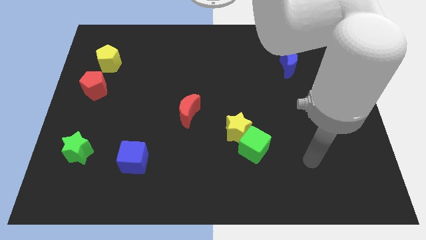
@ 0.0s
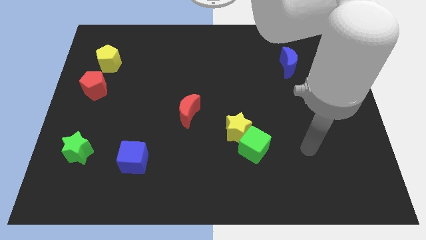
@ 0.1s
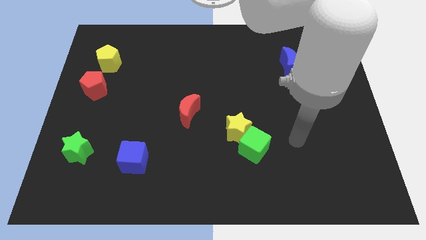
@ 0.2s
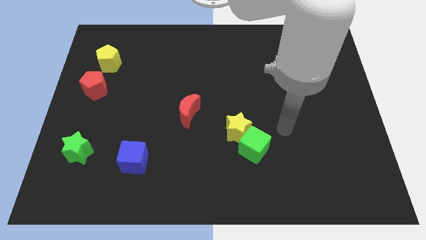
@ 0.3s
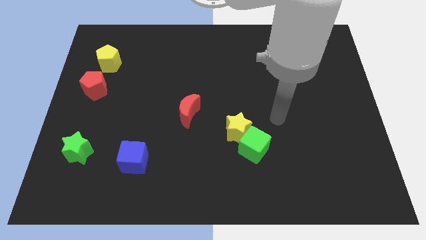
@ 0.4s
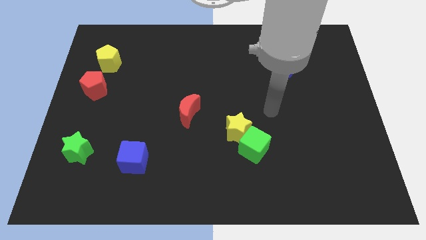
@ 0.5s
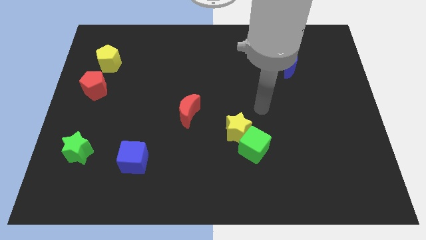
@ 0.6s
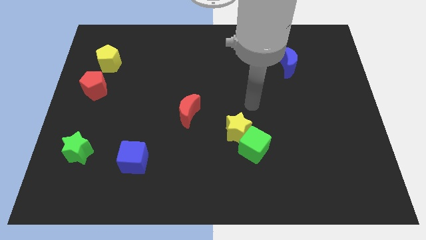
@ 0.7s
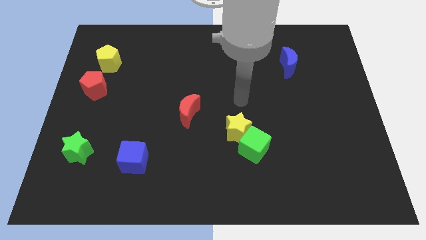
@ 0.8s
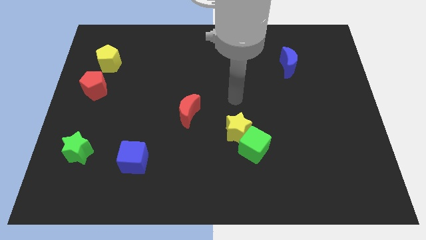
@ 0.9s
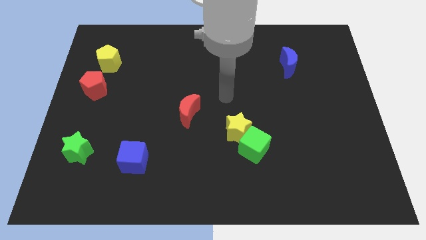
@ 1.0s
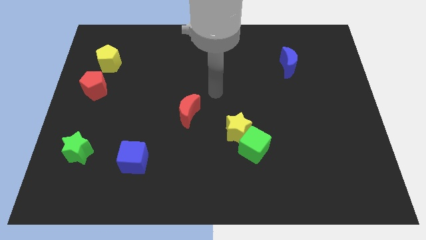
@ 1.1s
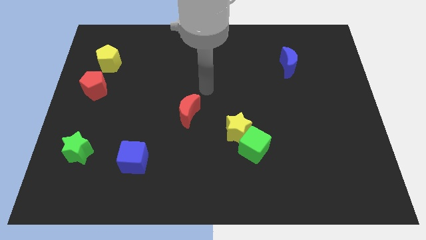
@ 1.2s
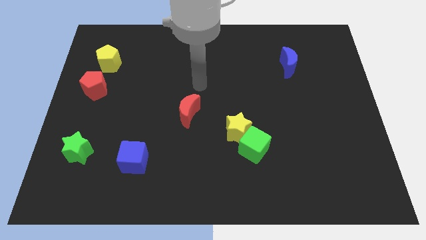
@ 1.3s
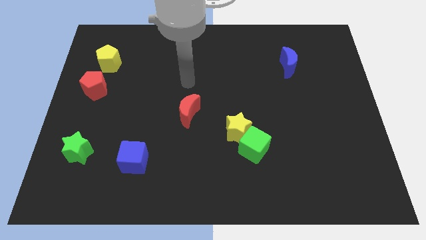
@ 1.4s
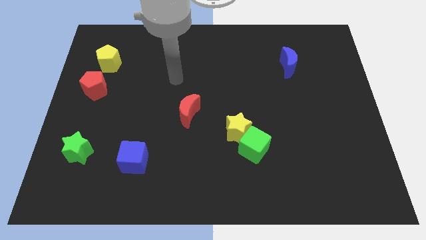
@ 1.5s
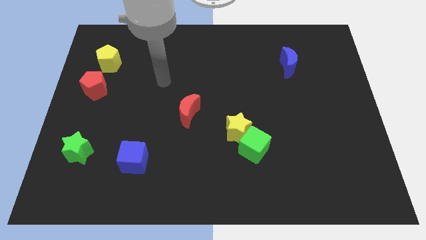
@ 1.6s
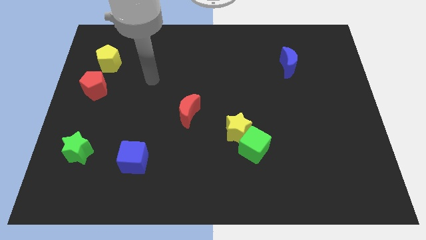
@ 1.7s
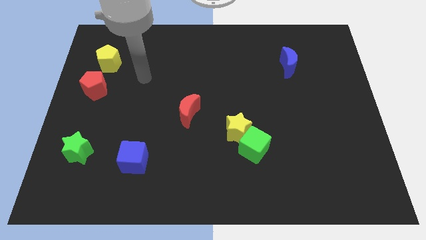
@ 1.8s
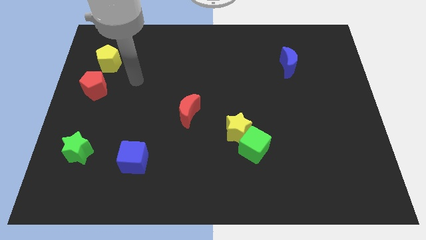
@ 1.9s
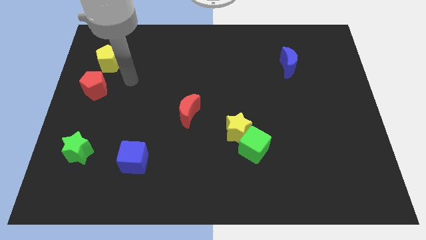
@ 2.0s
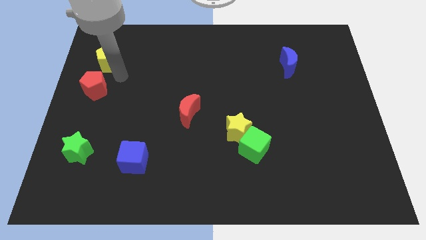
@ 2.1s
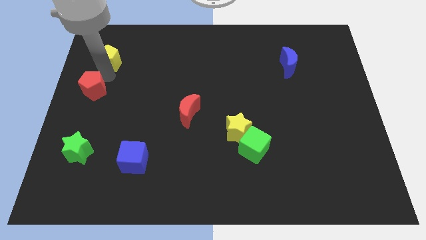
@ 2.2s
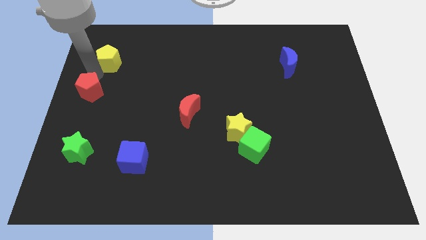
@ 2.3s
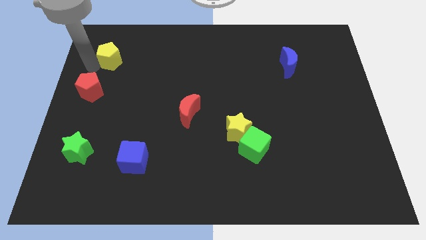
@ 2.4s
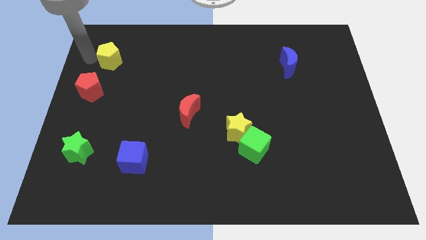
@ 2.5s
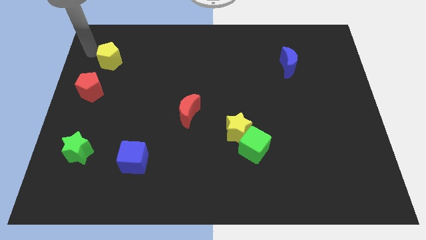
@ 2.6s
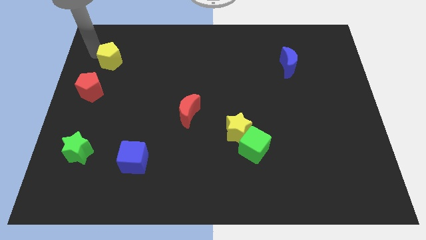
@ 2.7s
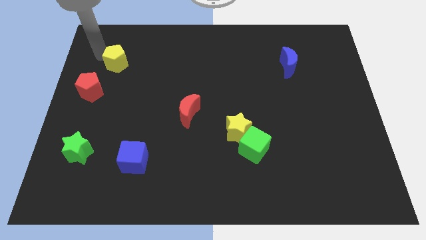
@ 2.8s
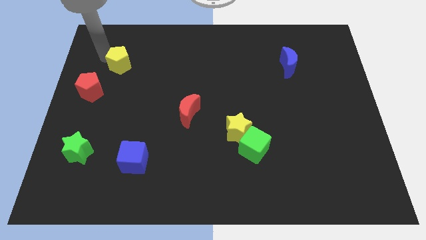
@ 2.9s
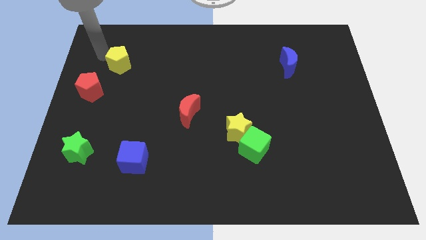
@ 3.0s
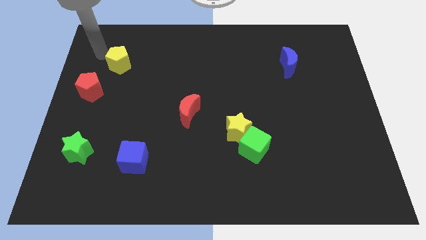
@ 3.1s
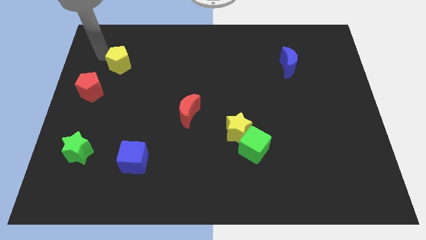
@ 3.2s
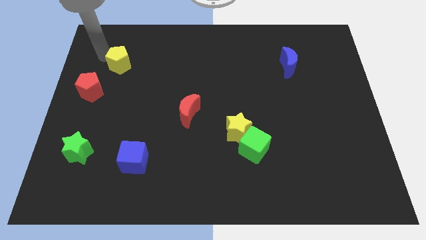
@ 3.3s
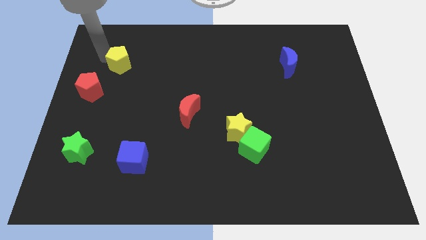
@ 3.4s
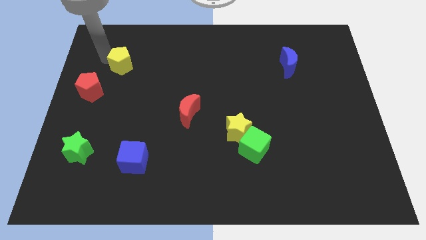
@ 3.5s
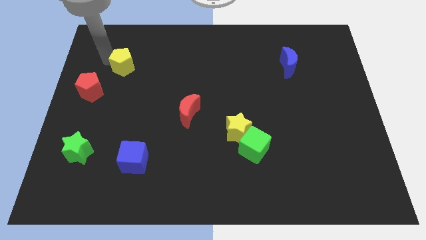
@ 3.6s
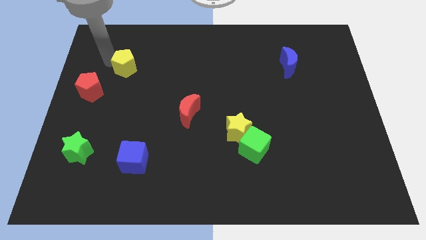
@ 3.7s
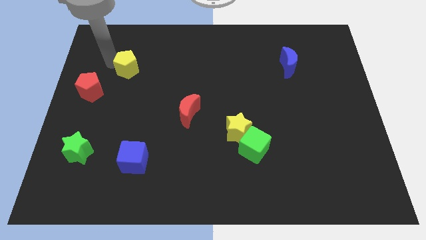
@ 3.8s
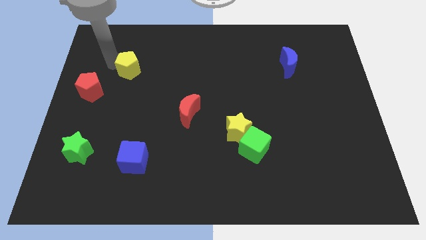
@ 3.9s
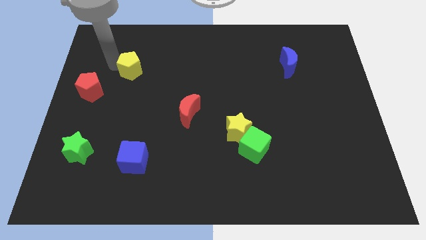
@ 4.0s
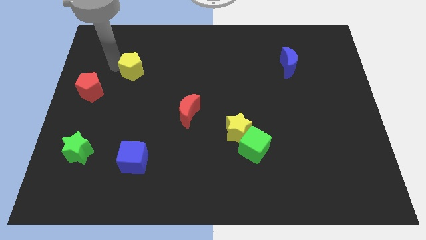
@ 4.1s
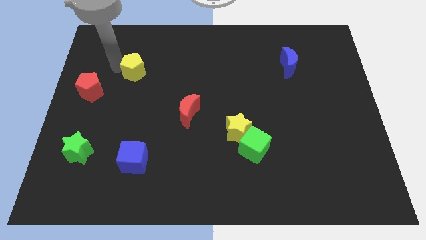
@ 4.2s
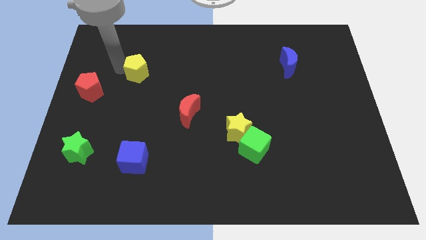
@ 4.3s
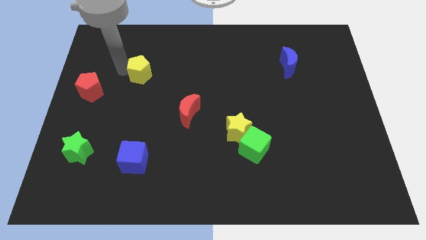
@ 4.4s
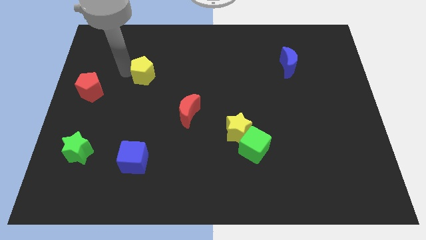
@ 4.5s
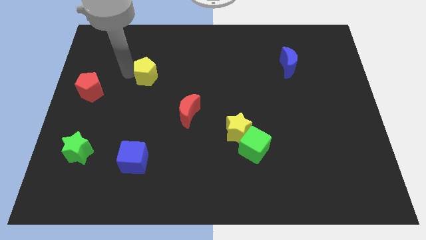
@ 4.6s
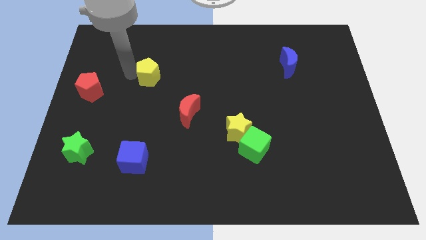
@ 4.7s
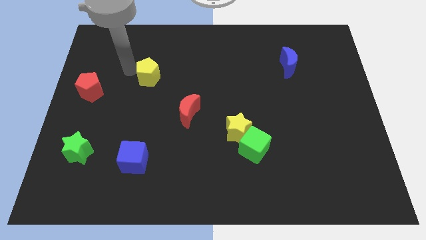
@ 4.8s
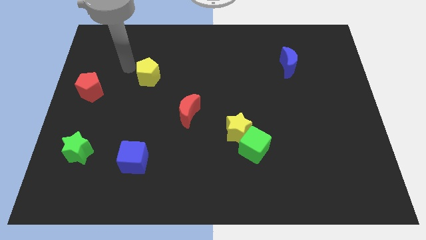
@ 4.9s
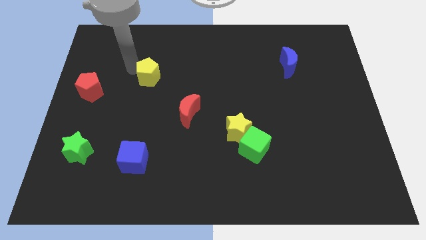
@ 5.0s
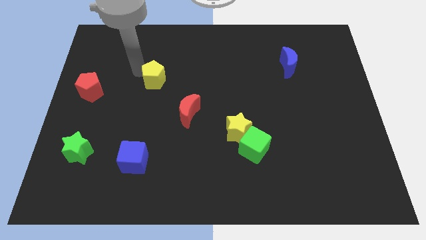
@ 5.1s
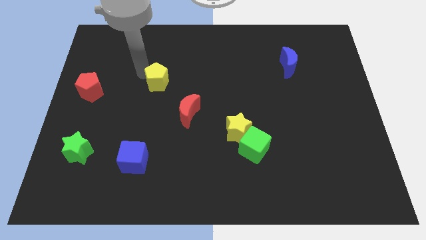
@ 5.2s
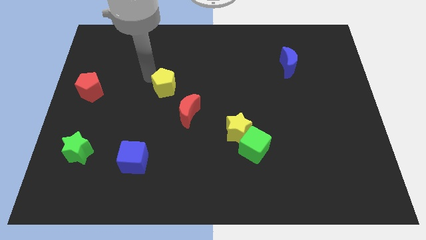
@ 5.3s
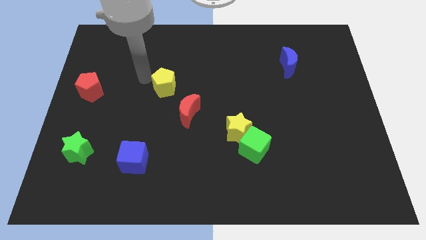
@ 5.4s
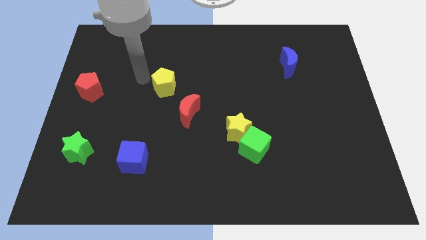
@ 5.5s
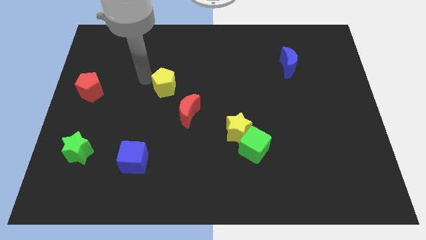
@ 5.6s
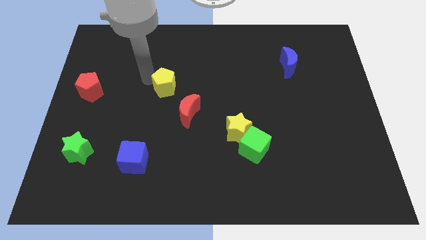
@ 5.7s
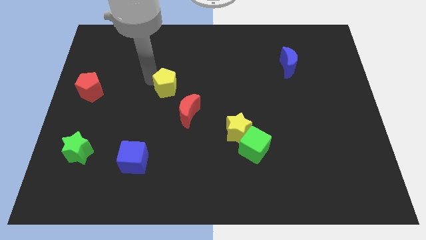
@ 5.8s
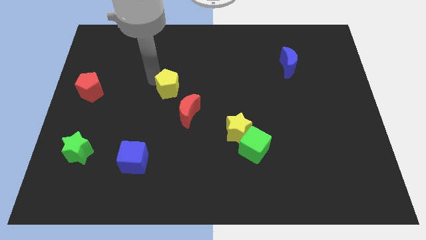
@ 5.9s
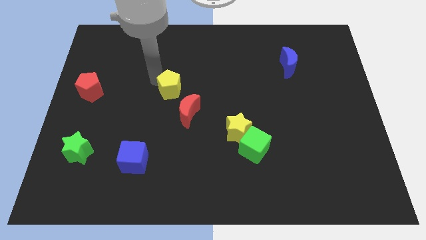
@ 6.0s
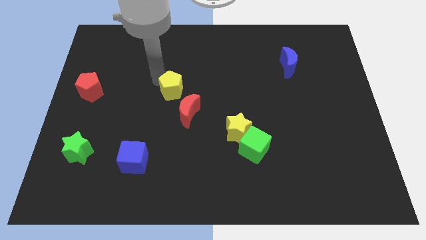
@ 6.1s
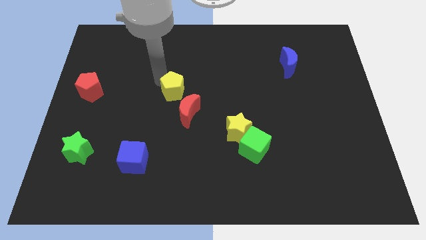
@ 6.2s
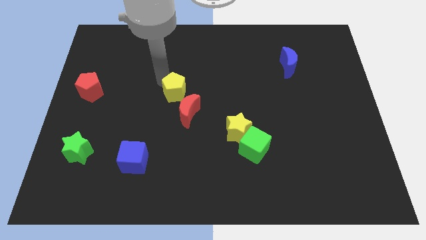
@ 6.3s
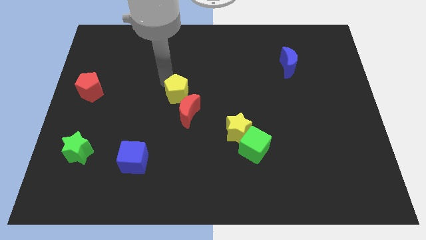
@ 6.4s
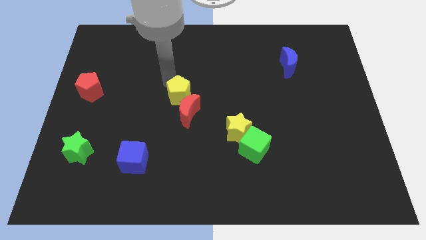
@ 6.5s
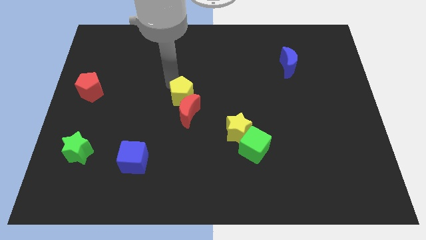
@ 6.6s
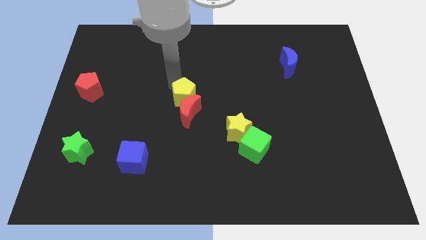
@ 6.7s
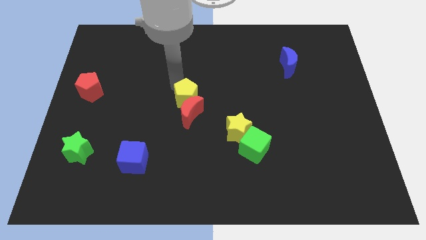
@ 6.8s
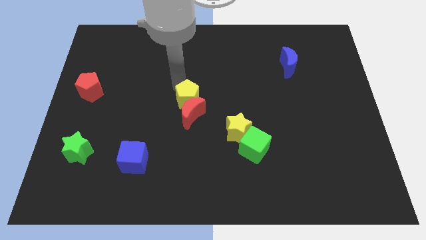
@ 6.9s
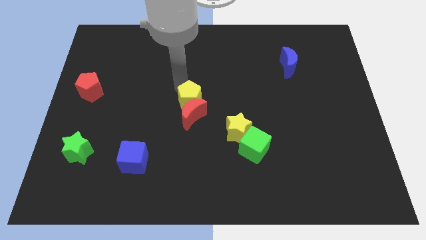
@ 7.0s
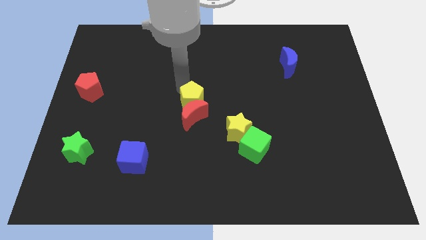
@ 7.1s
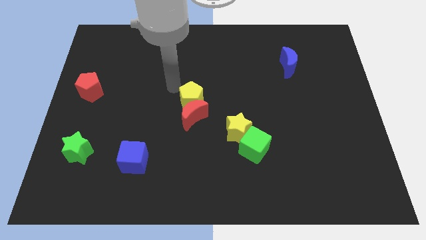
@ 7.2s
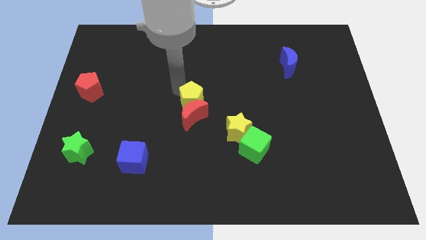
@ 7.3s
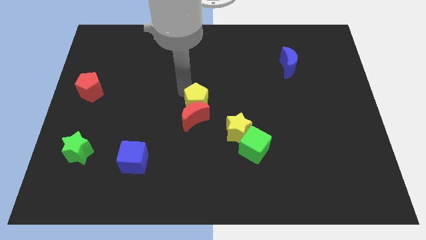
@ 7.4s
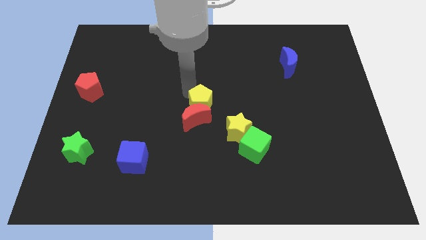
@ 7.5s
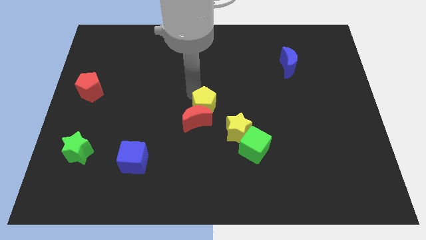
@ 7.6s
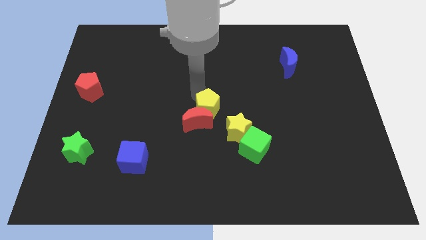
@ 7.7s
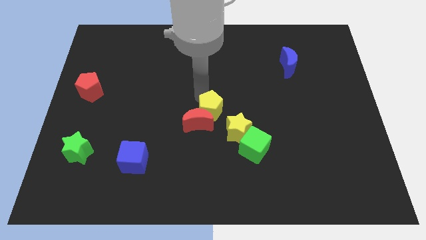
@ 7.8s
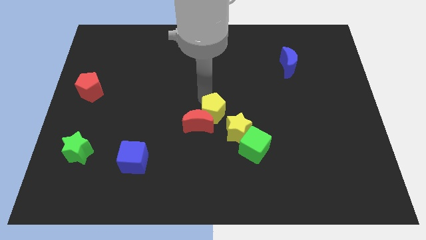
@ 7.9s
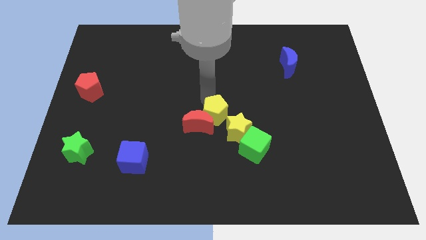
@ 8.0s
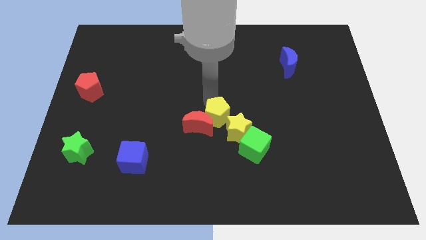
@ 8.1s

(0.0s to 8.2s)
put the yellow pentagon to the yellow star

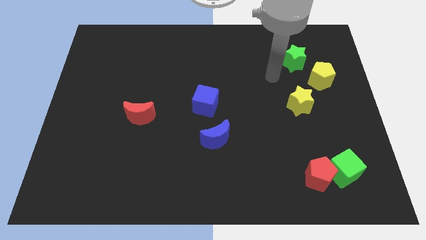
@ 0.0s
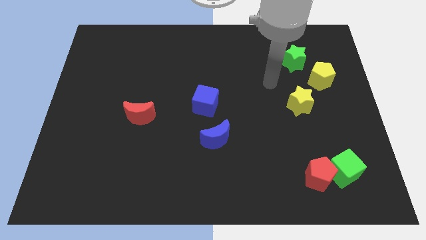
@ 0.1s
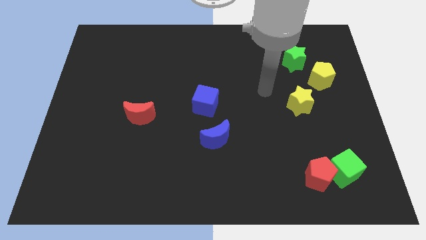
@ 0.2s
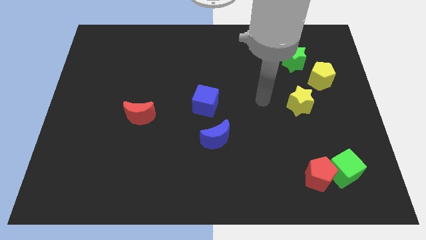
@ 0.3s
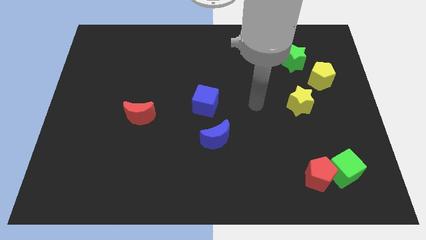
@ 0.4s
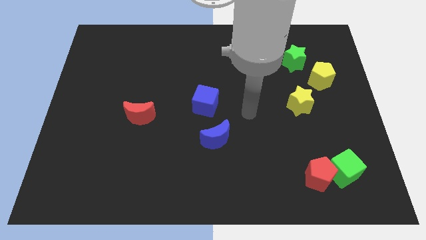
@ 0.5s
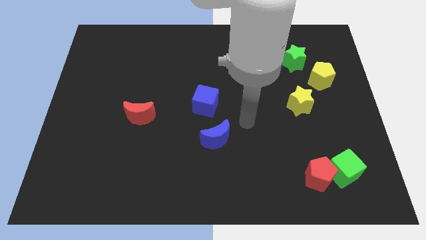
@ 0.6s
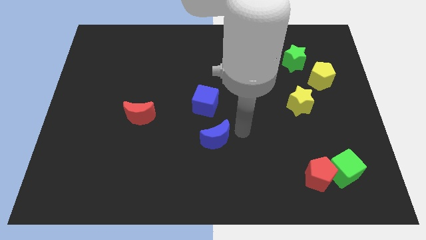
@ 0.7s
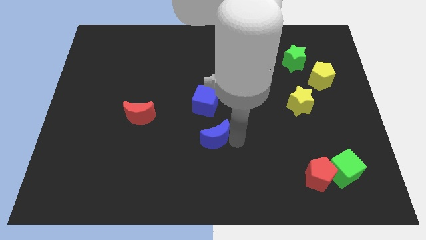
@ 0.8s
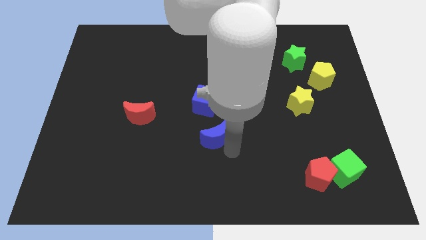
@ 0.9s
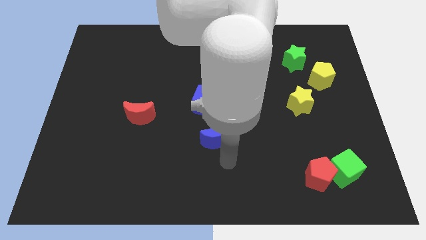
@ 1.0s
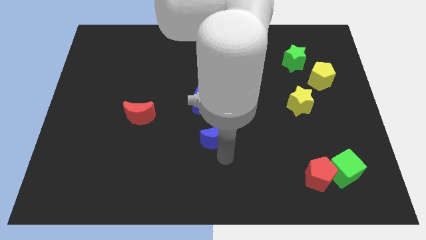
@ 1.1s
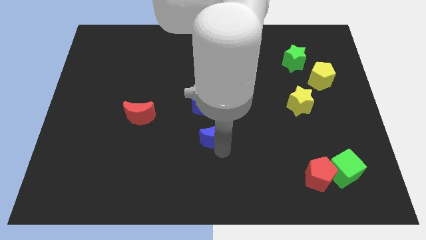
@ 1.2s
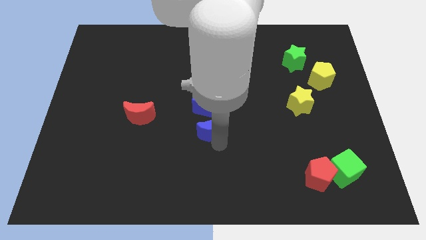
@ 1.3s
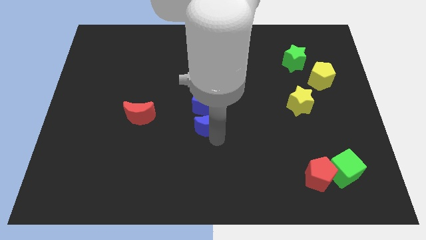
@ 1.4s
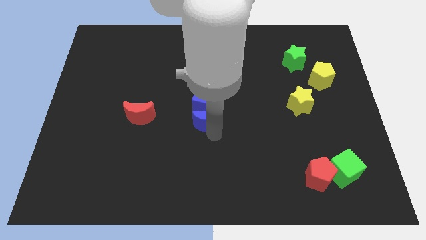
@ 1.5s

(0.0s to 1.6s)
push the blue moon to the blue cube
